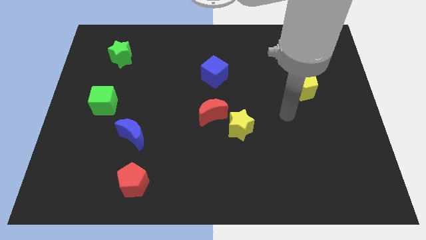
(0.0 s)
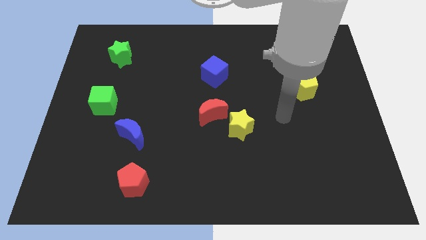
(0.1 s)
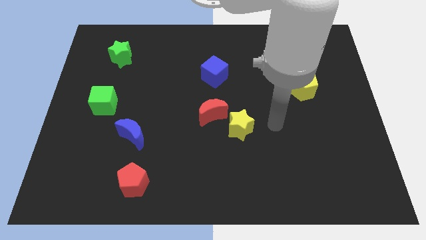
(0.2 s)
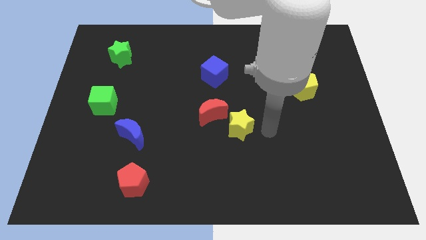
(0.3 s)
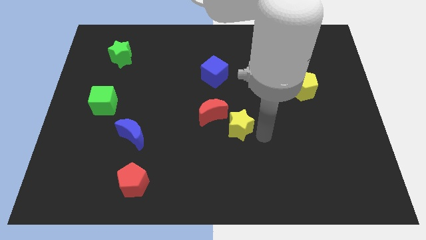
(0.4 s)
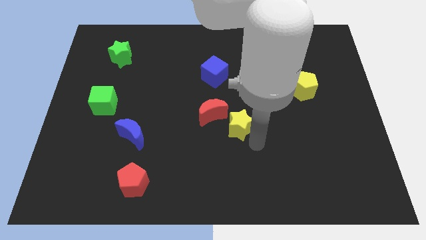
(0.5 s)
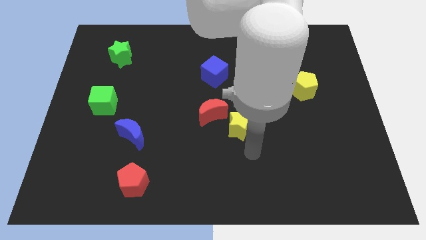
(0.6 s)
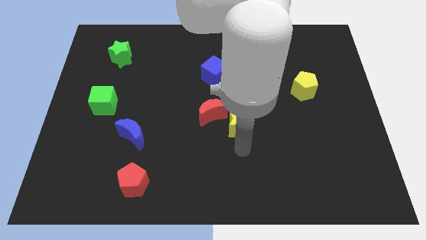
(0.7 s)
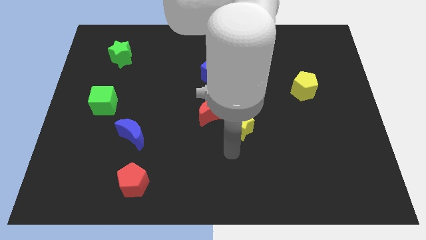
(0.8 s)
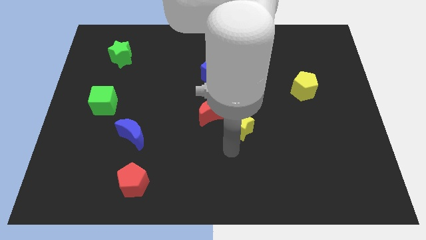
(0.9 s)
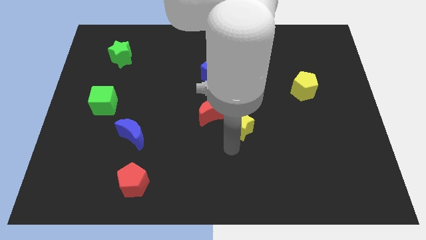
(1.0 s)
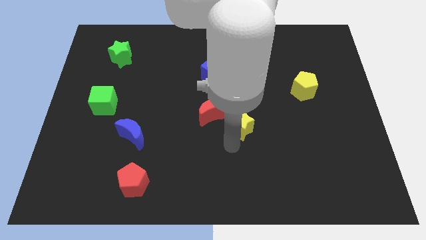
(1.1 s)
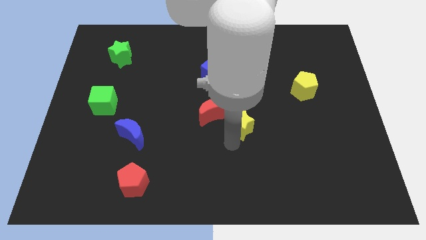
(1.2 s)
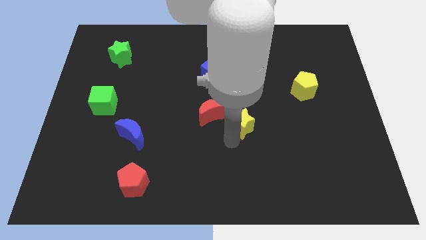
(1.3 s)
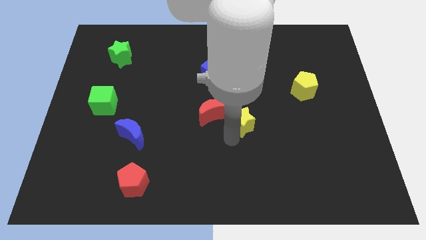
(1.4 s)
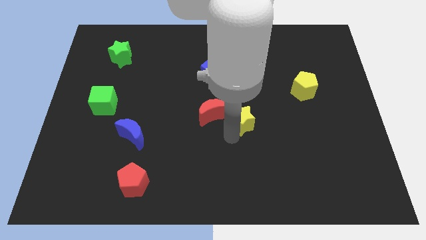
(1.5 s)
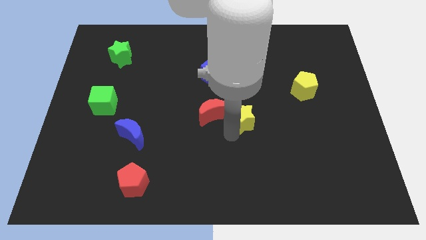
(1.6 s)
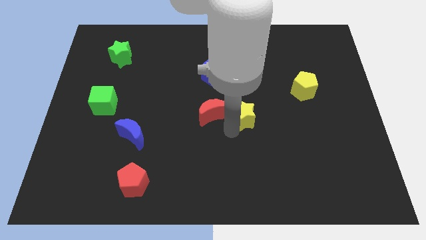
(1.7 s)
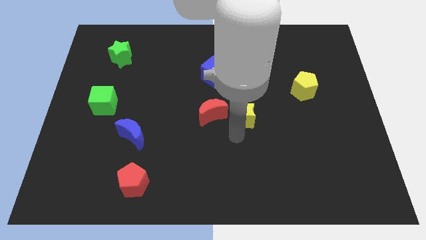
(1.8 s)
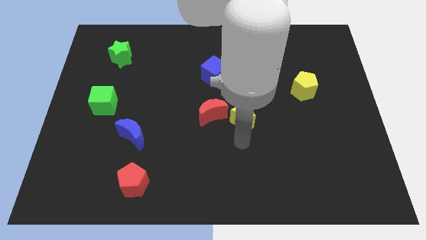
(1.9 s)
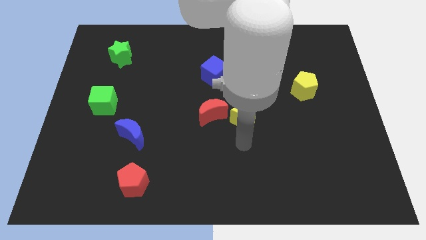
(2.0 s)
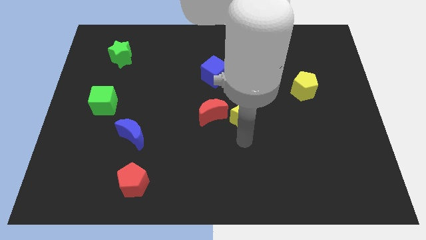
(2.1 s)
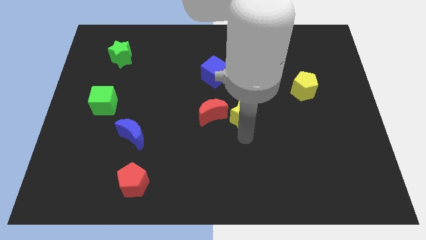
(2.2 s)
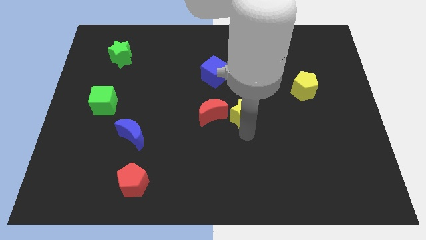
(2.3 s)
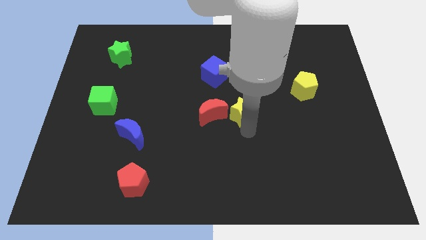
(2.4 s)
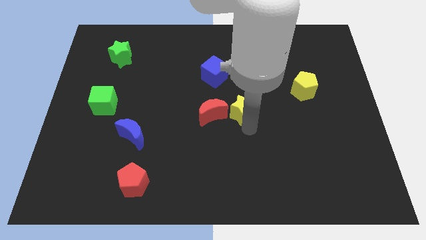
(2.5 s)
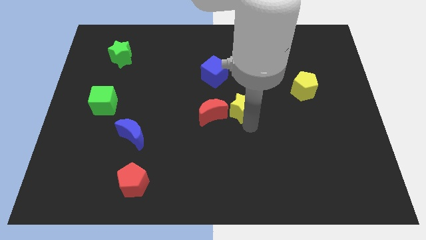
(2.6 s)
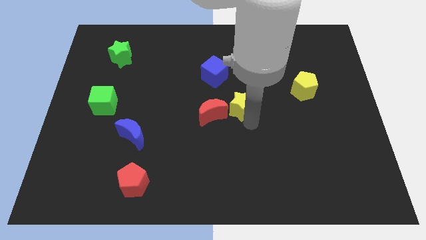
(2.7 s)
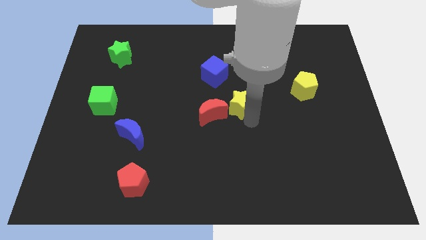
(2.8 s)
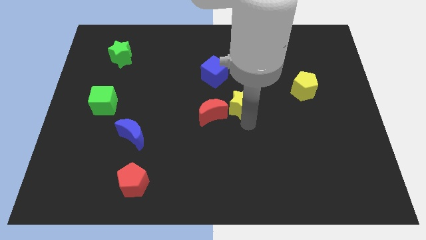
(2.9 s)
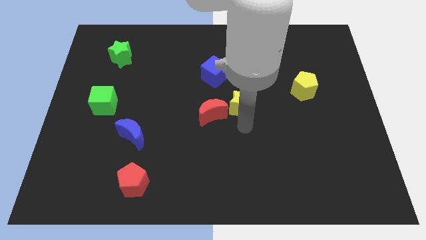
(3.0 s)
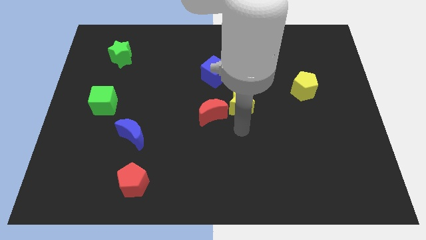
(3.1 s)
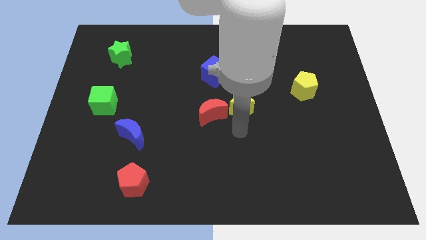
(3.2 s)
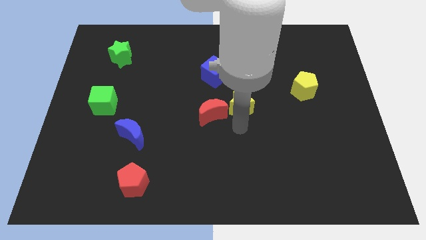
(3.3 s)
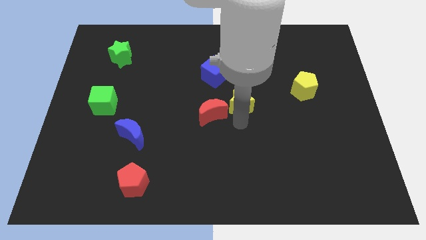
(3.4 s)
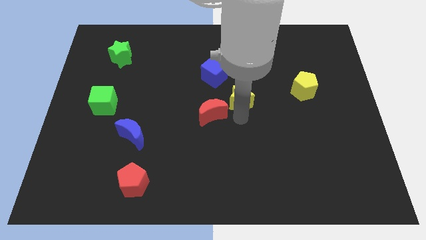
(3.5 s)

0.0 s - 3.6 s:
slide the yellow star somewhat upwards

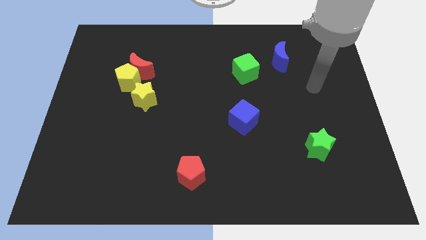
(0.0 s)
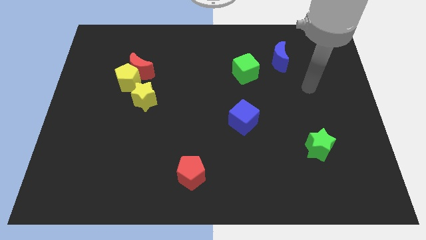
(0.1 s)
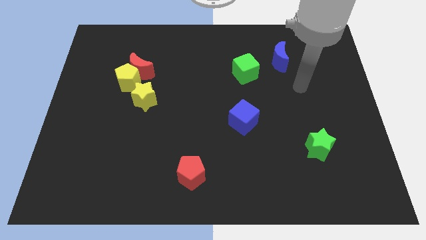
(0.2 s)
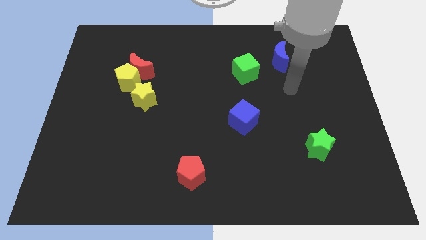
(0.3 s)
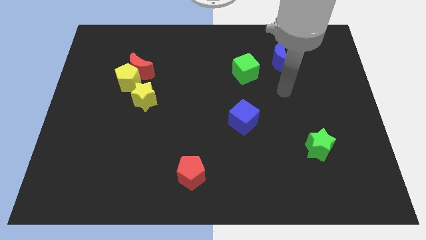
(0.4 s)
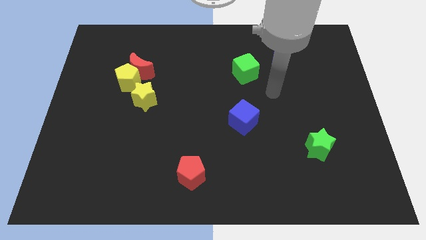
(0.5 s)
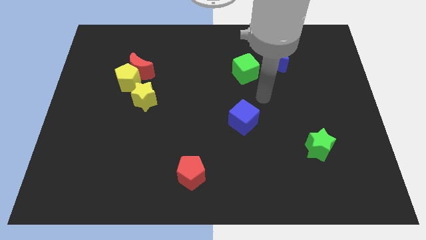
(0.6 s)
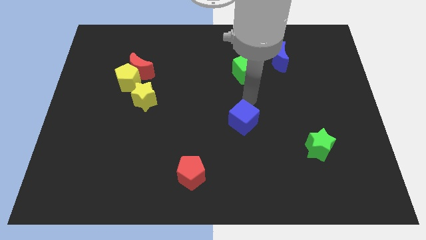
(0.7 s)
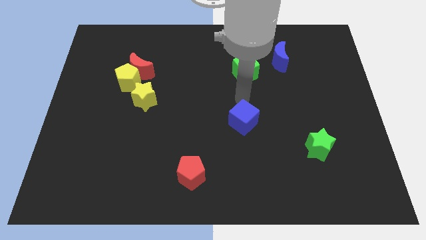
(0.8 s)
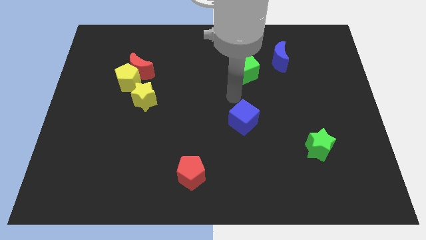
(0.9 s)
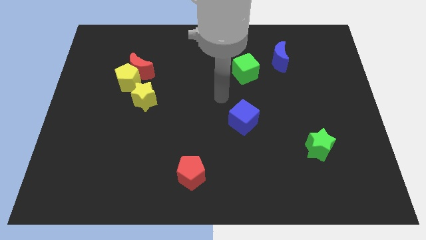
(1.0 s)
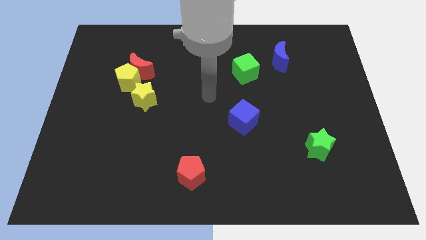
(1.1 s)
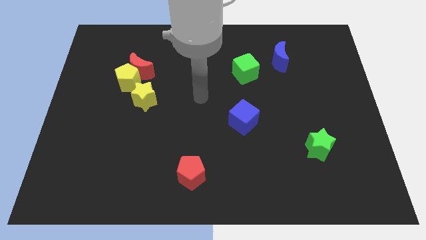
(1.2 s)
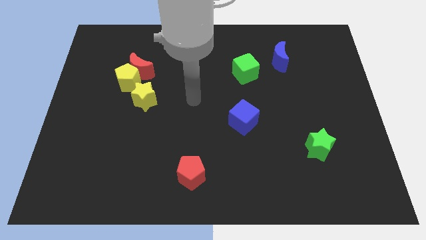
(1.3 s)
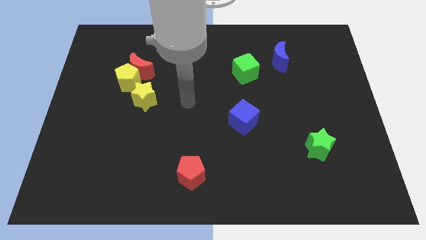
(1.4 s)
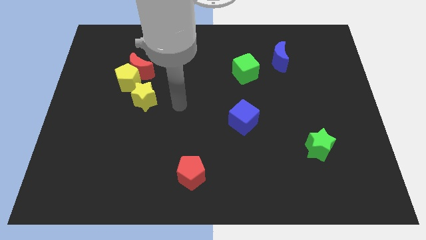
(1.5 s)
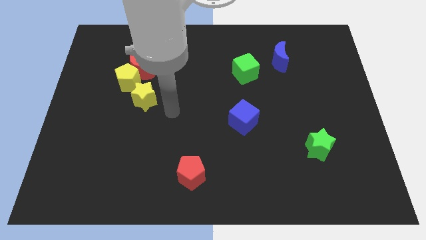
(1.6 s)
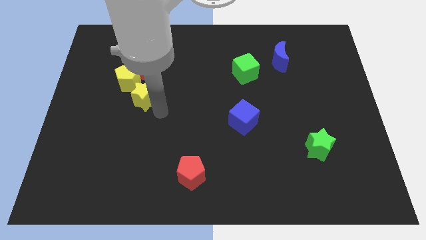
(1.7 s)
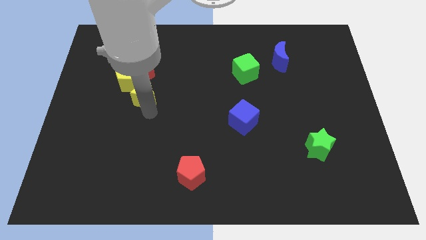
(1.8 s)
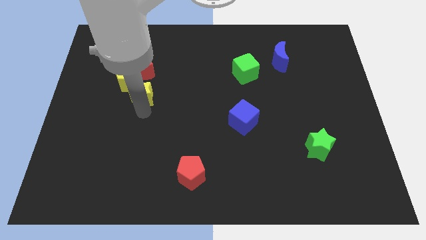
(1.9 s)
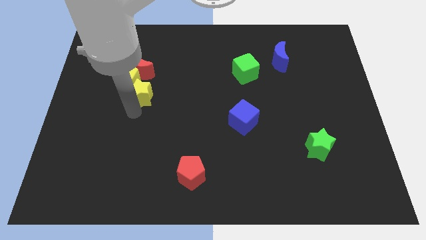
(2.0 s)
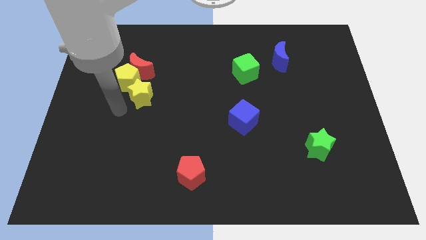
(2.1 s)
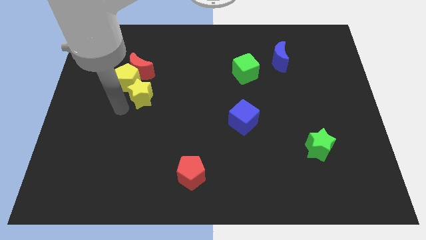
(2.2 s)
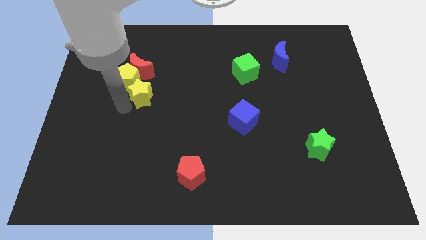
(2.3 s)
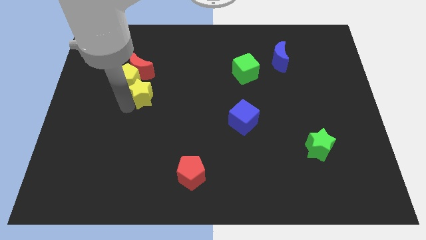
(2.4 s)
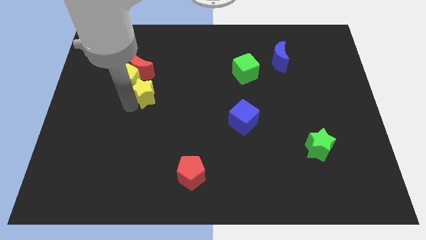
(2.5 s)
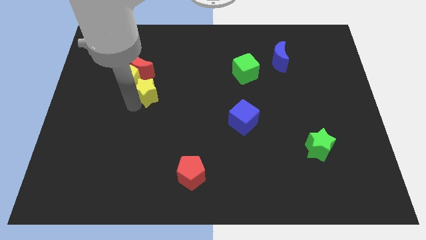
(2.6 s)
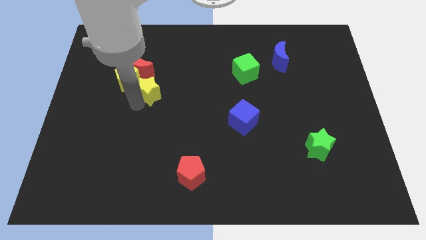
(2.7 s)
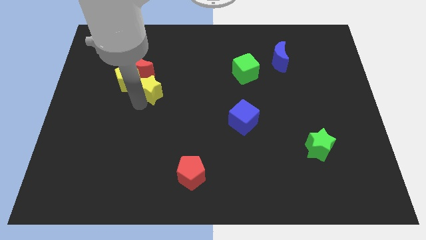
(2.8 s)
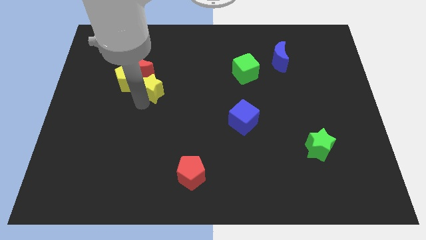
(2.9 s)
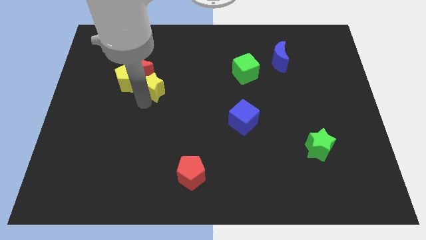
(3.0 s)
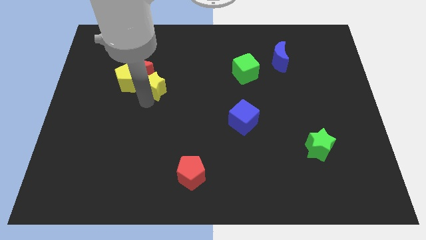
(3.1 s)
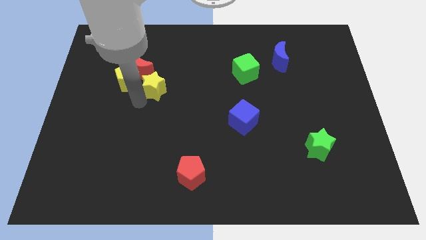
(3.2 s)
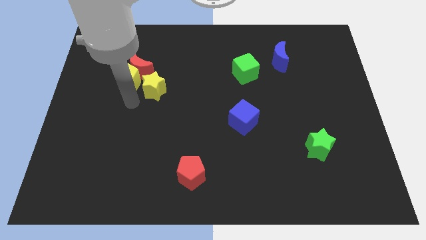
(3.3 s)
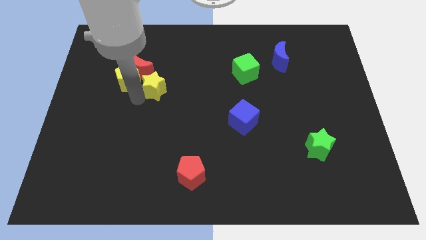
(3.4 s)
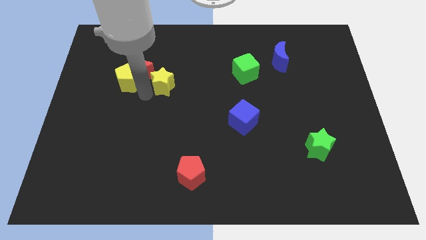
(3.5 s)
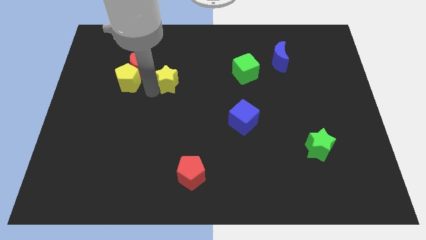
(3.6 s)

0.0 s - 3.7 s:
move the yellow star up and to the right a little

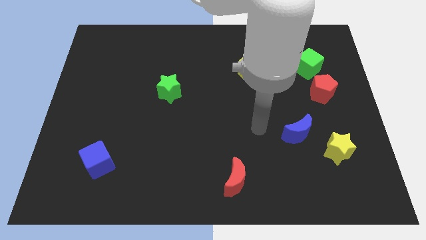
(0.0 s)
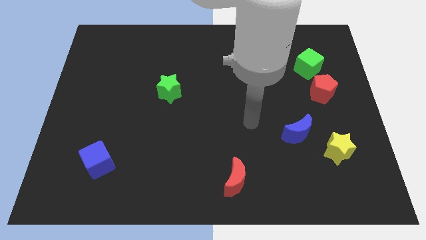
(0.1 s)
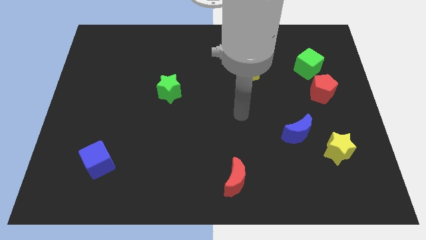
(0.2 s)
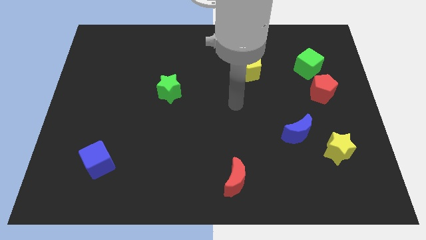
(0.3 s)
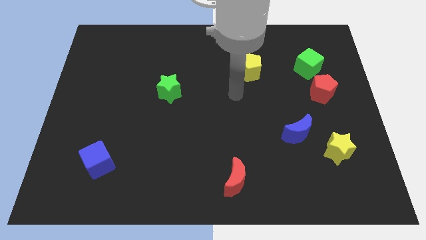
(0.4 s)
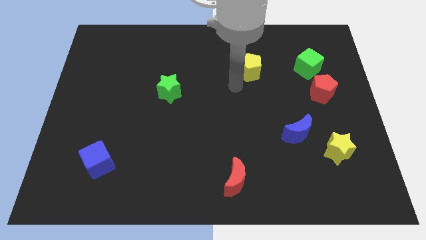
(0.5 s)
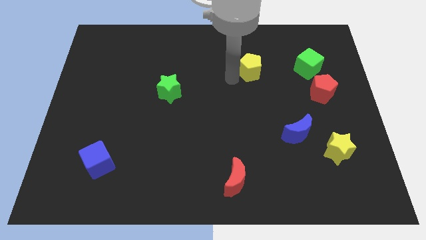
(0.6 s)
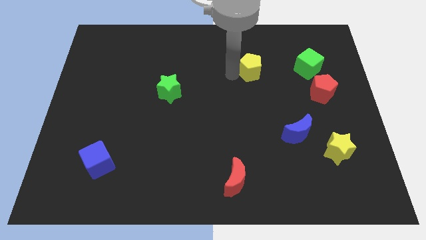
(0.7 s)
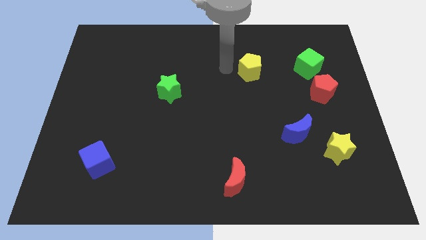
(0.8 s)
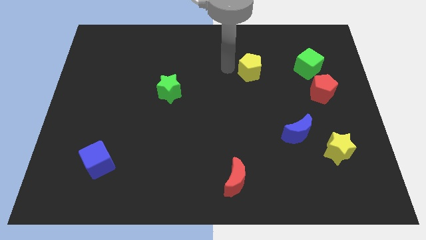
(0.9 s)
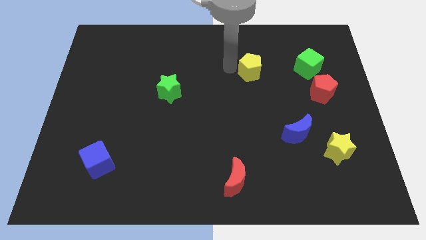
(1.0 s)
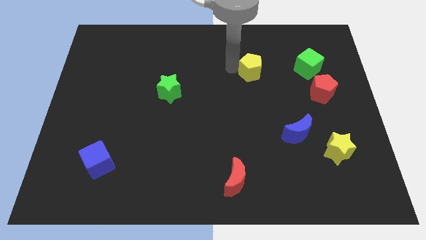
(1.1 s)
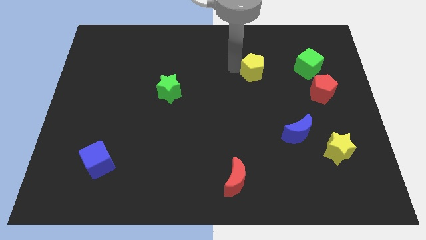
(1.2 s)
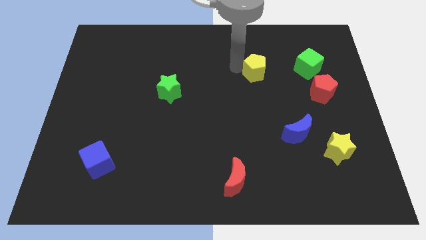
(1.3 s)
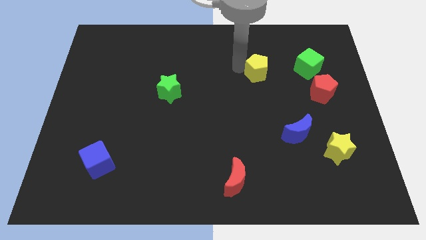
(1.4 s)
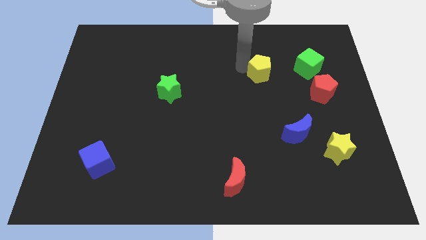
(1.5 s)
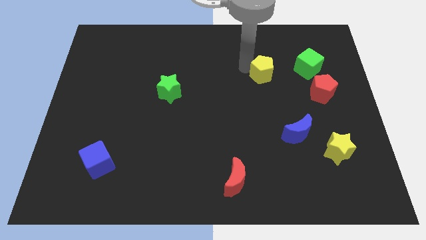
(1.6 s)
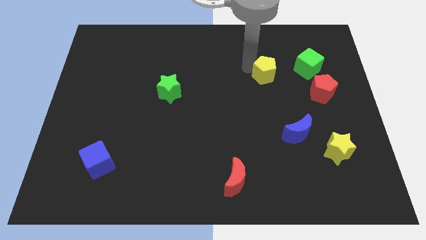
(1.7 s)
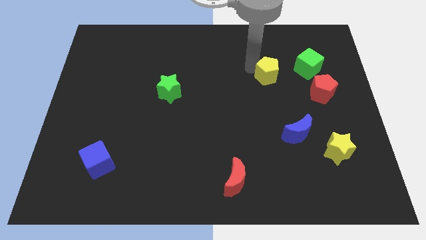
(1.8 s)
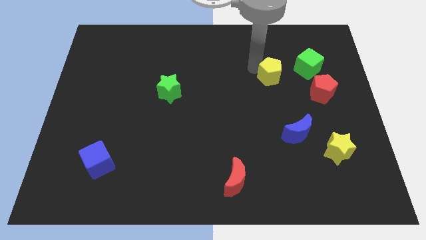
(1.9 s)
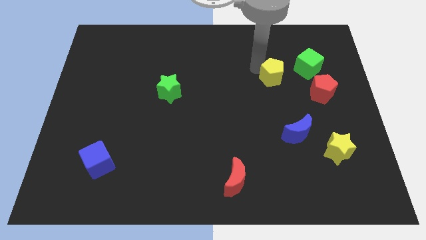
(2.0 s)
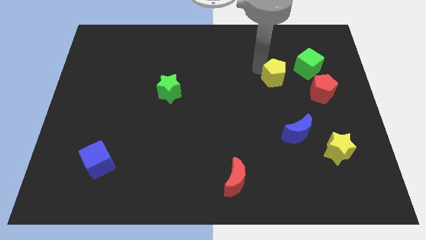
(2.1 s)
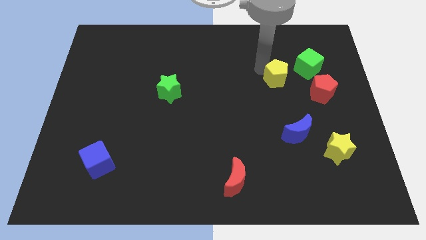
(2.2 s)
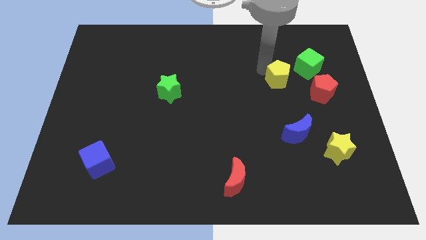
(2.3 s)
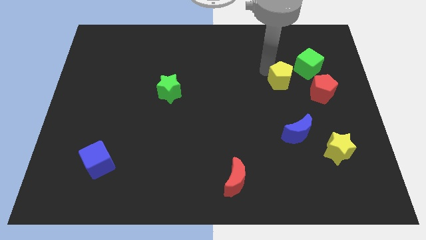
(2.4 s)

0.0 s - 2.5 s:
slide the yellow pentagon a bit to the right
